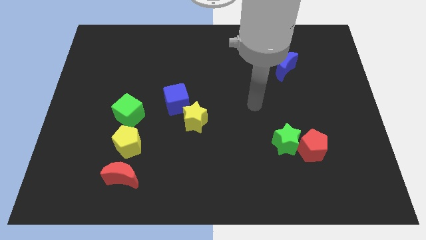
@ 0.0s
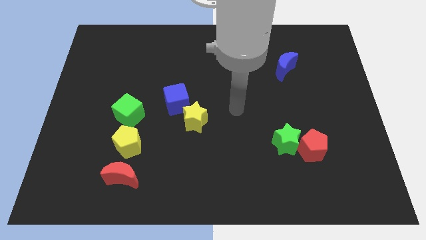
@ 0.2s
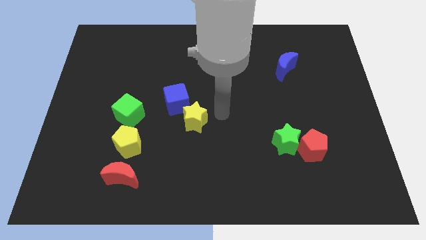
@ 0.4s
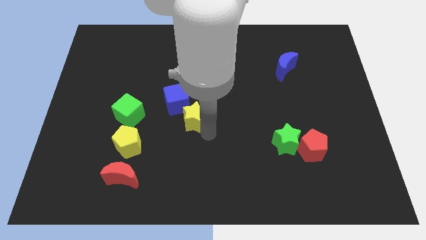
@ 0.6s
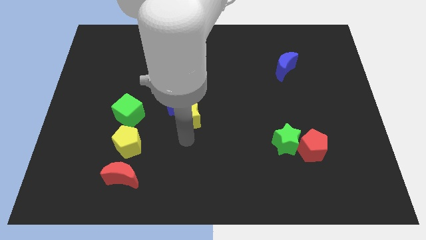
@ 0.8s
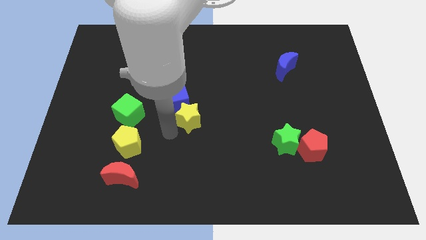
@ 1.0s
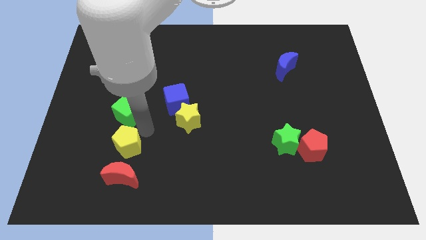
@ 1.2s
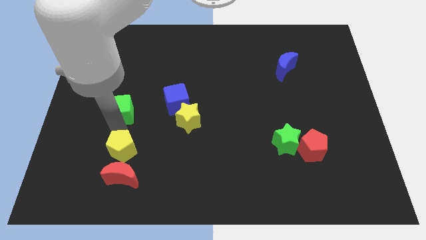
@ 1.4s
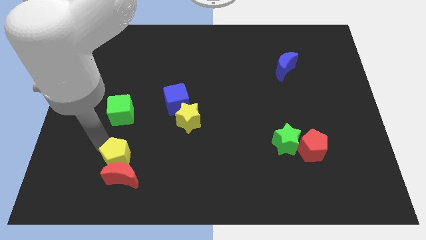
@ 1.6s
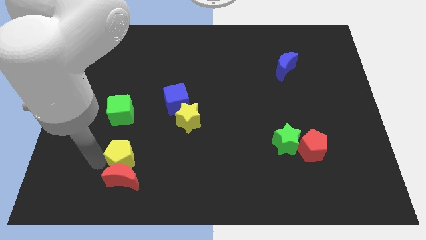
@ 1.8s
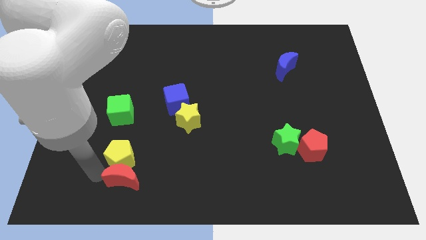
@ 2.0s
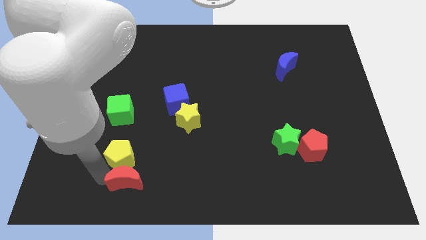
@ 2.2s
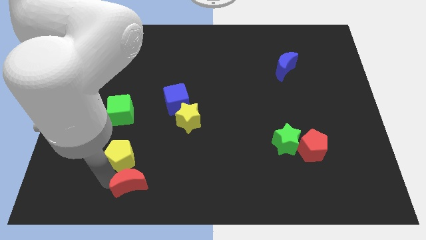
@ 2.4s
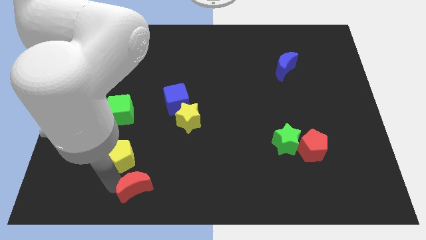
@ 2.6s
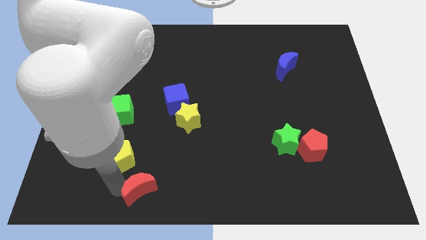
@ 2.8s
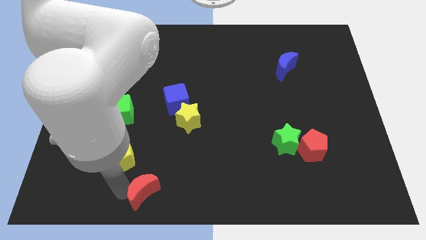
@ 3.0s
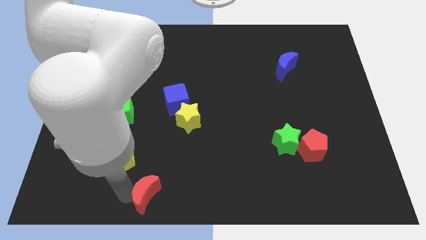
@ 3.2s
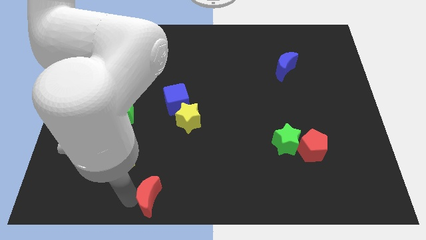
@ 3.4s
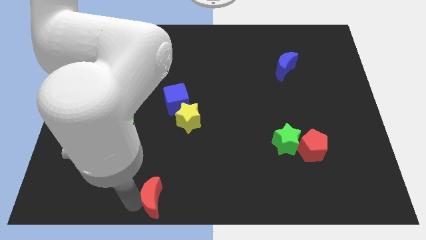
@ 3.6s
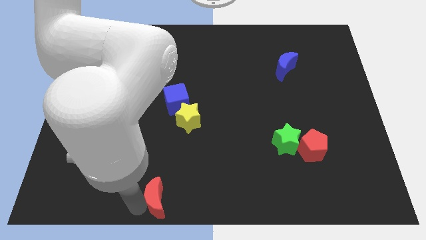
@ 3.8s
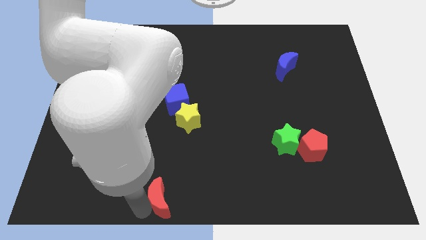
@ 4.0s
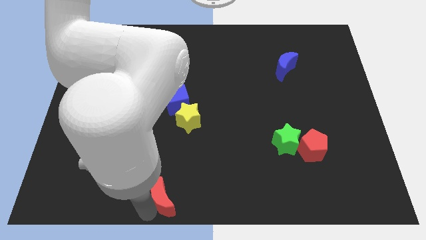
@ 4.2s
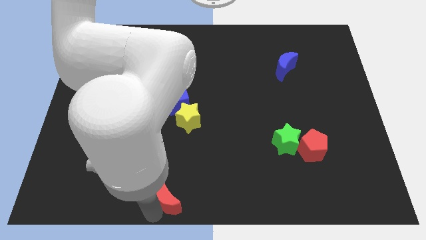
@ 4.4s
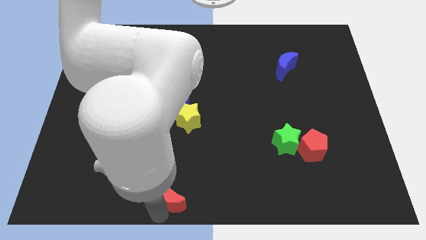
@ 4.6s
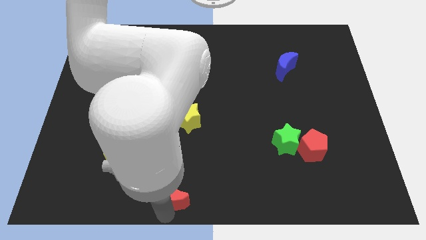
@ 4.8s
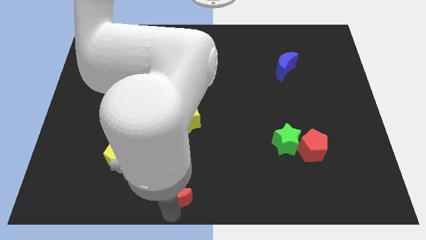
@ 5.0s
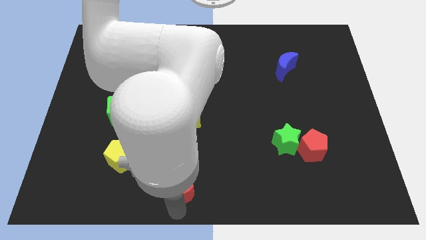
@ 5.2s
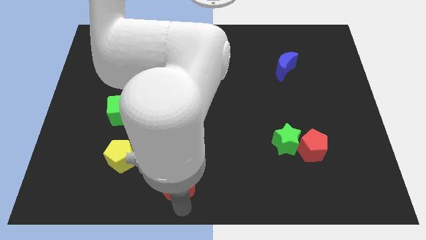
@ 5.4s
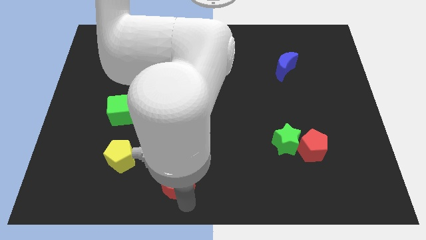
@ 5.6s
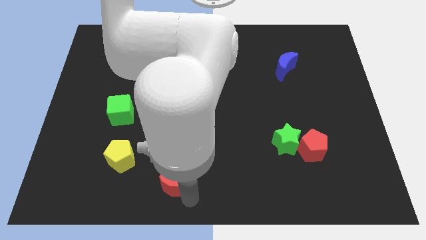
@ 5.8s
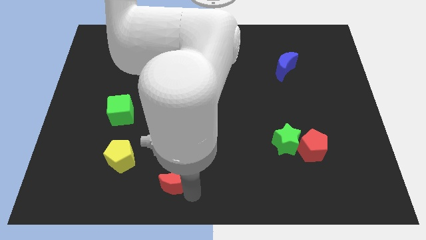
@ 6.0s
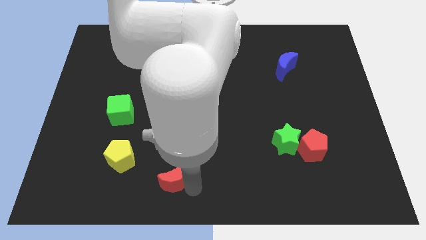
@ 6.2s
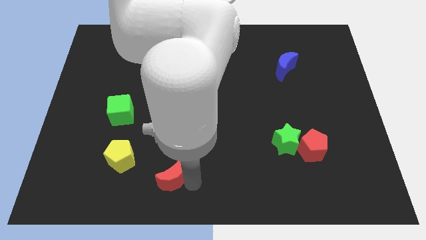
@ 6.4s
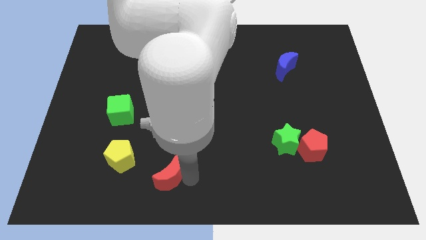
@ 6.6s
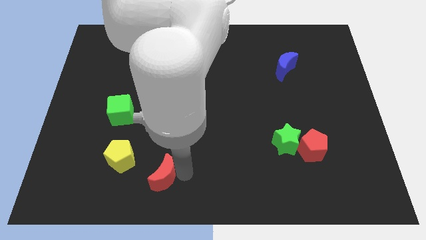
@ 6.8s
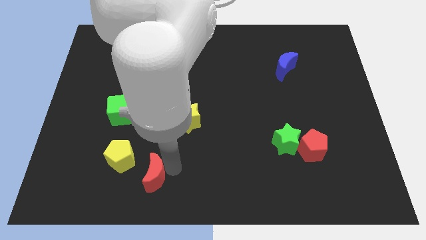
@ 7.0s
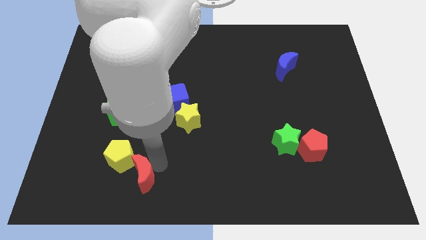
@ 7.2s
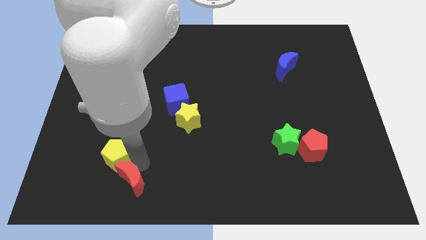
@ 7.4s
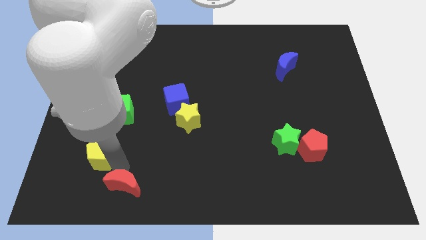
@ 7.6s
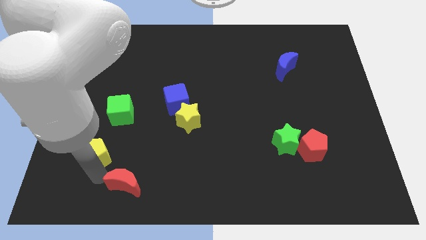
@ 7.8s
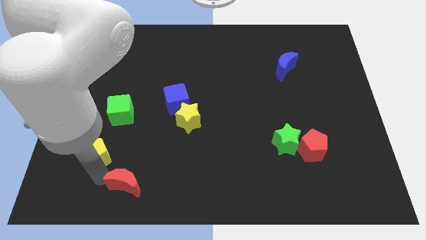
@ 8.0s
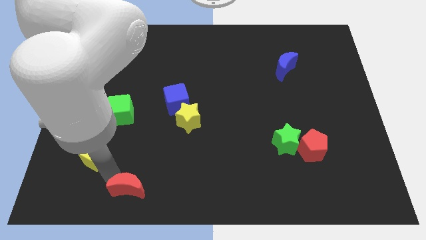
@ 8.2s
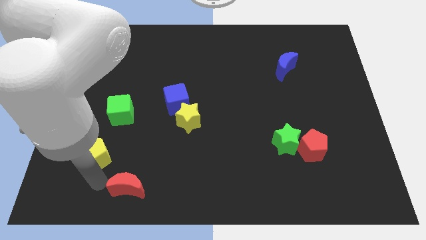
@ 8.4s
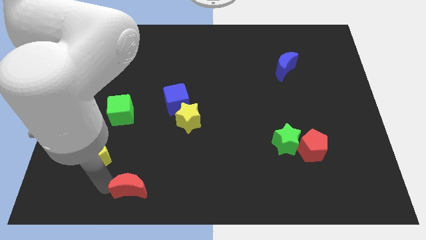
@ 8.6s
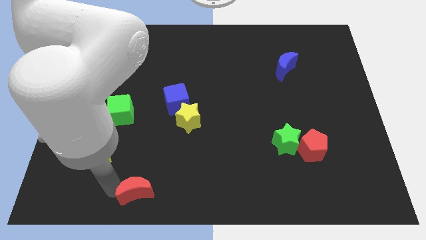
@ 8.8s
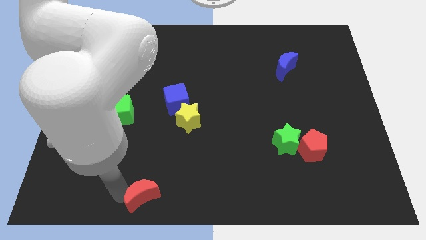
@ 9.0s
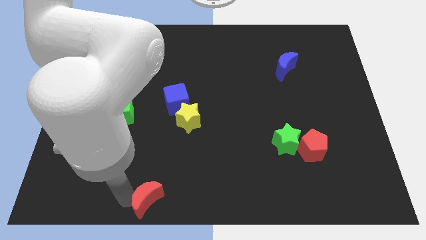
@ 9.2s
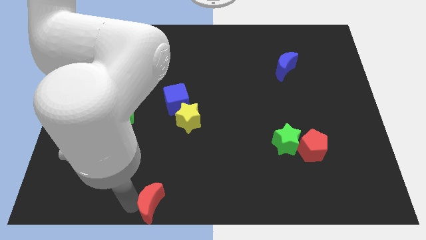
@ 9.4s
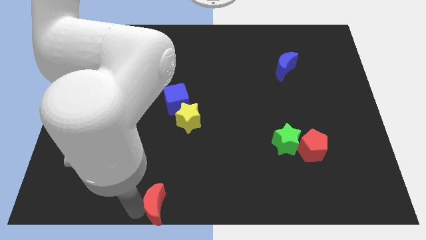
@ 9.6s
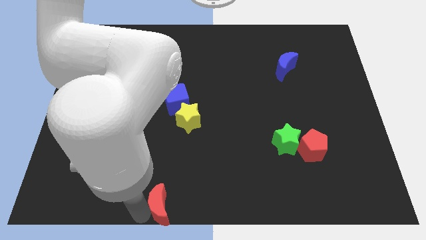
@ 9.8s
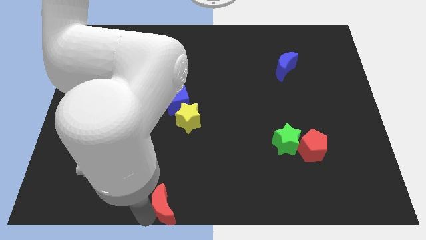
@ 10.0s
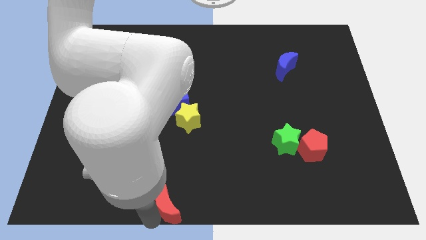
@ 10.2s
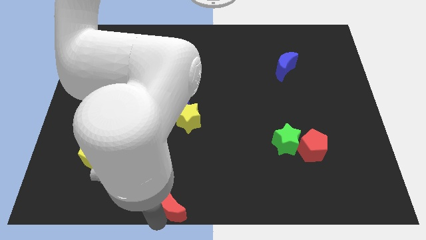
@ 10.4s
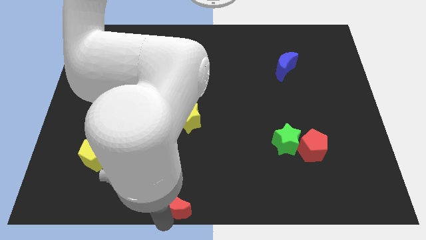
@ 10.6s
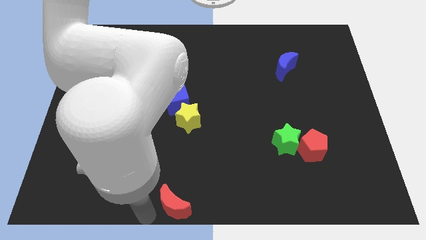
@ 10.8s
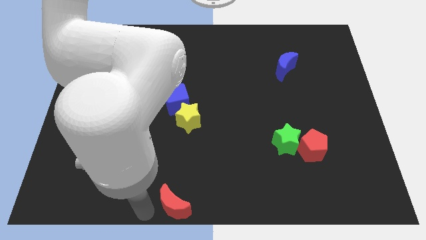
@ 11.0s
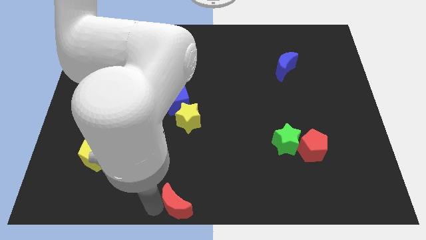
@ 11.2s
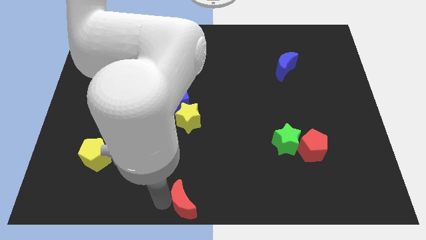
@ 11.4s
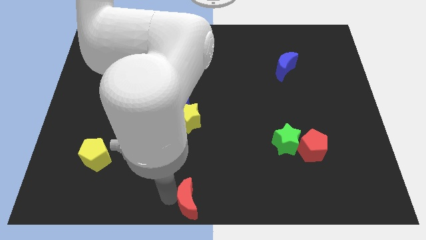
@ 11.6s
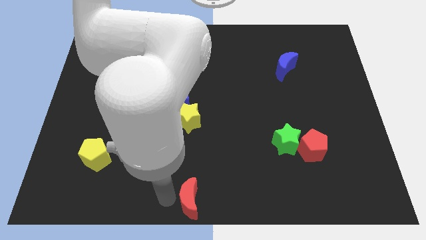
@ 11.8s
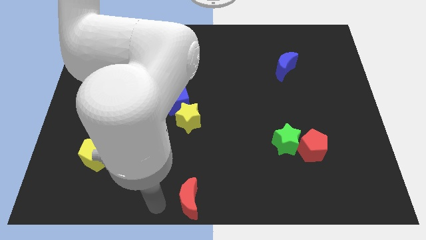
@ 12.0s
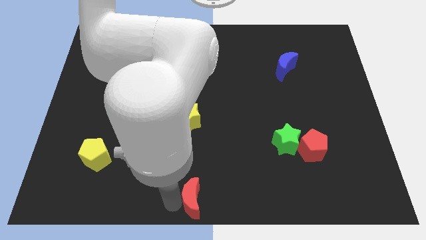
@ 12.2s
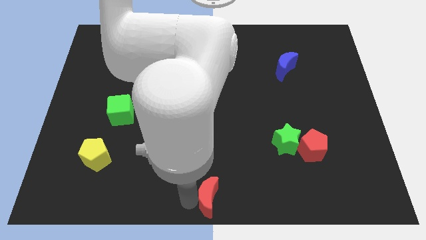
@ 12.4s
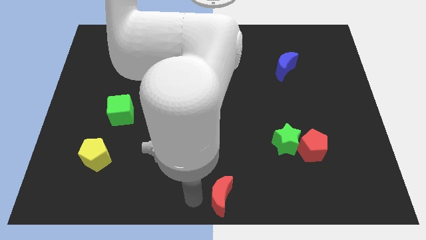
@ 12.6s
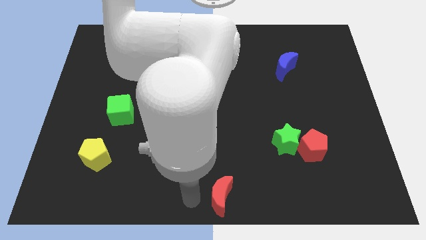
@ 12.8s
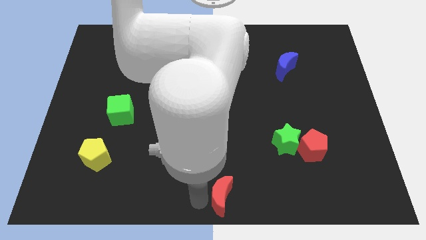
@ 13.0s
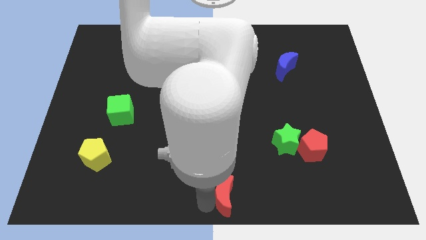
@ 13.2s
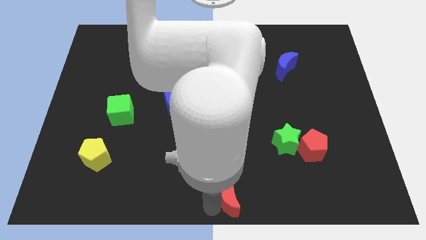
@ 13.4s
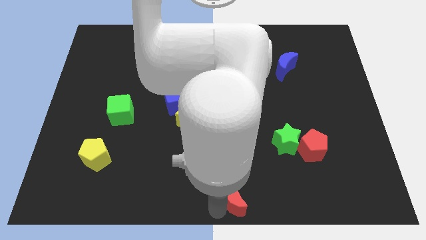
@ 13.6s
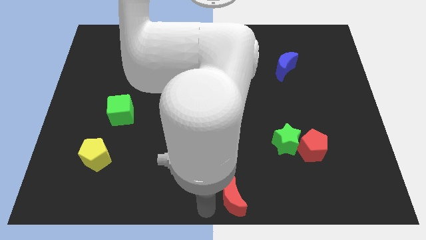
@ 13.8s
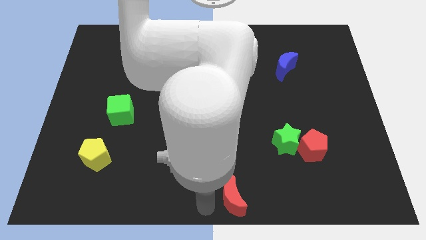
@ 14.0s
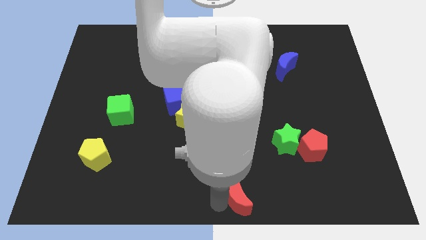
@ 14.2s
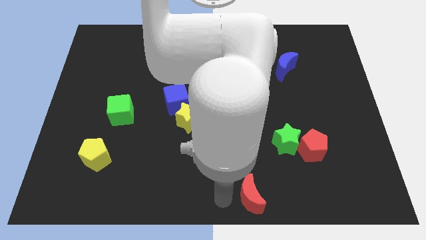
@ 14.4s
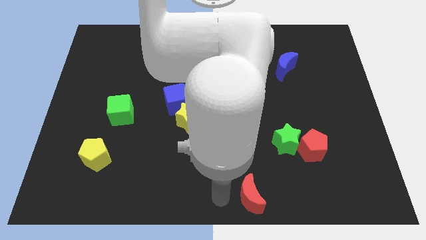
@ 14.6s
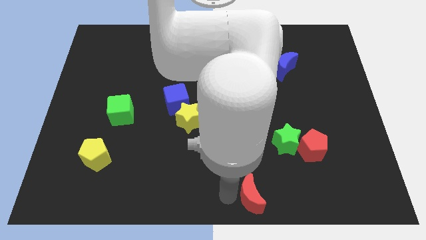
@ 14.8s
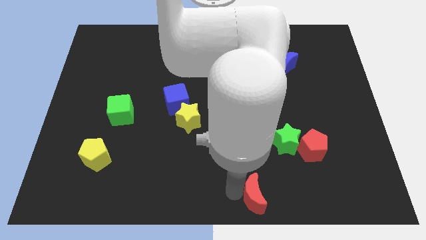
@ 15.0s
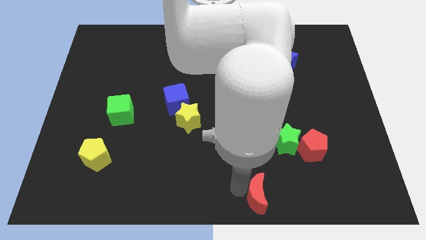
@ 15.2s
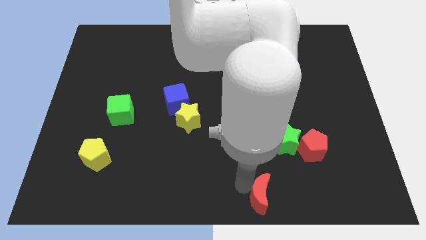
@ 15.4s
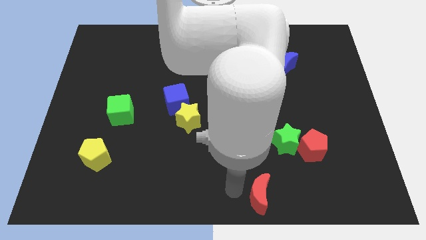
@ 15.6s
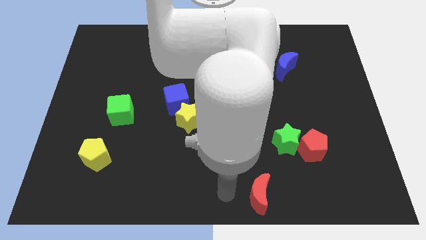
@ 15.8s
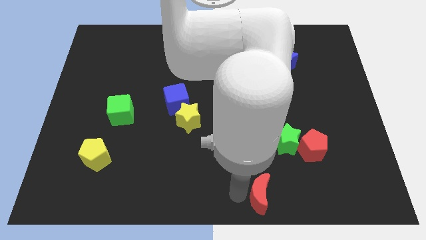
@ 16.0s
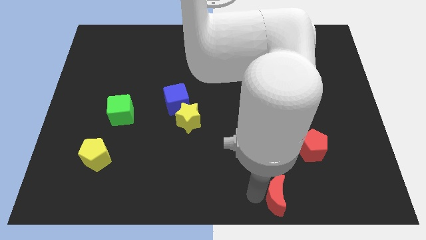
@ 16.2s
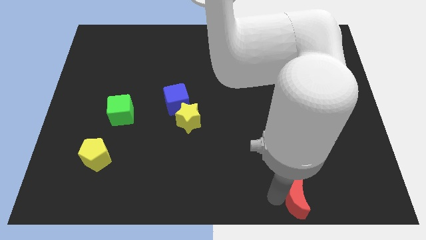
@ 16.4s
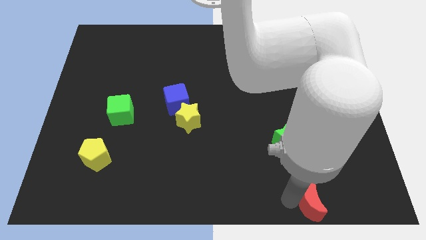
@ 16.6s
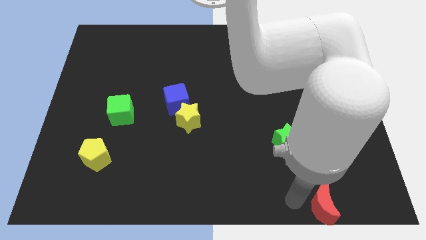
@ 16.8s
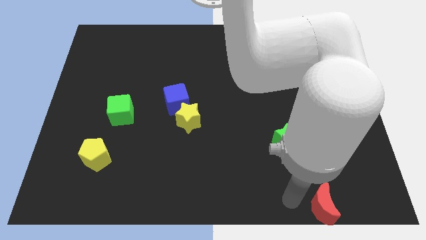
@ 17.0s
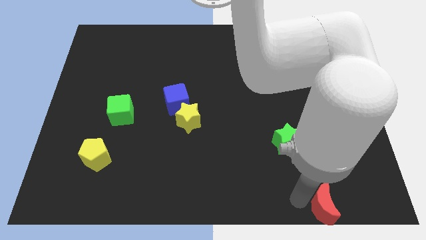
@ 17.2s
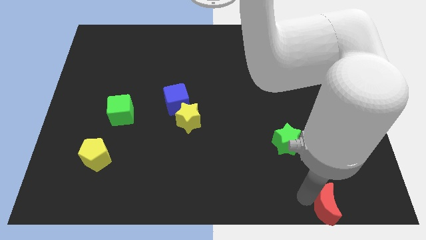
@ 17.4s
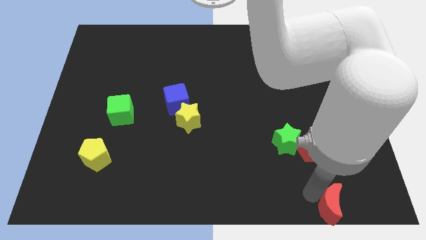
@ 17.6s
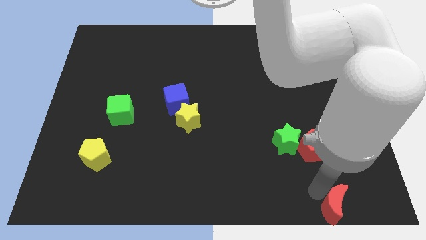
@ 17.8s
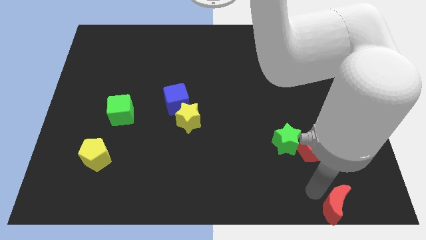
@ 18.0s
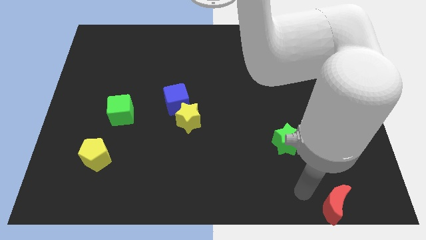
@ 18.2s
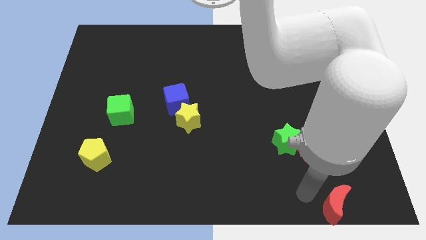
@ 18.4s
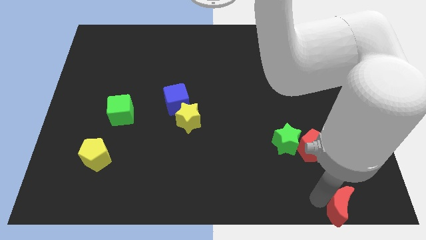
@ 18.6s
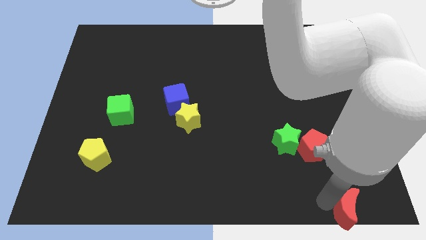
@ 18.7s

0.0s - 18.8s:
push the red moon to the bottom right
